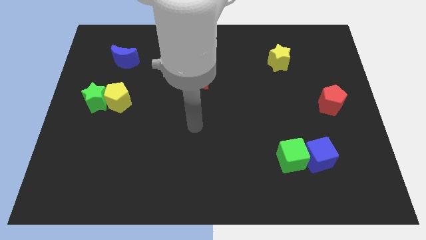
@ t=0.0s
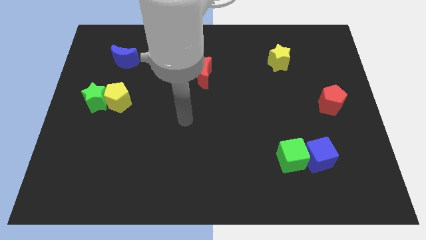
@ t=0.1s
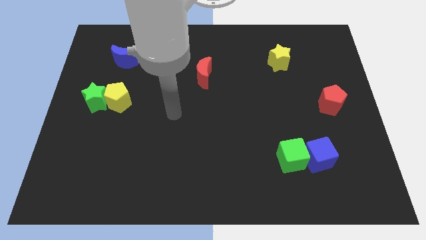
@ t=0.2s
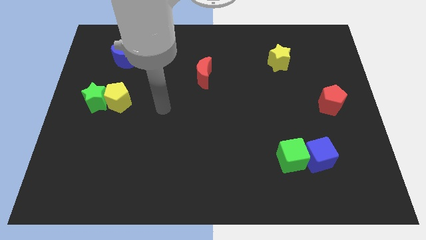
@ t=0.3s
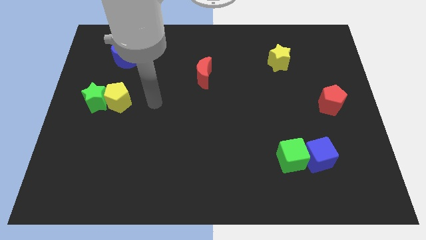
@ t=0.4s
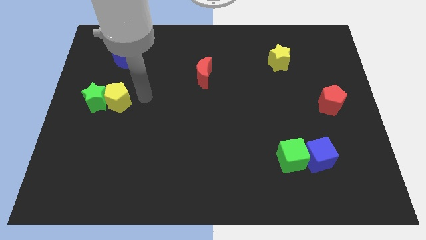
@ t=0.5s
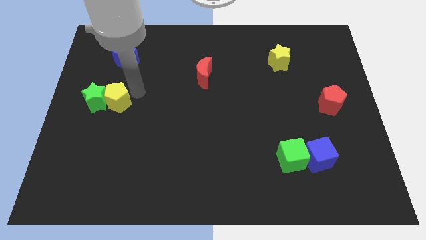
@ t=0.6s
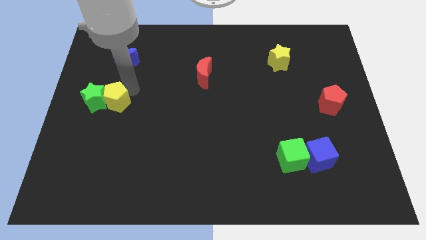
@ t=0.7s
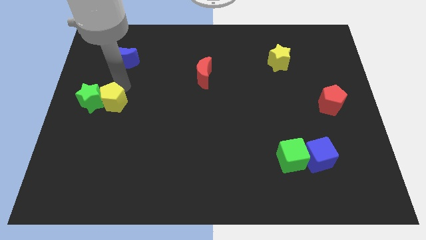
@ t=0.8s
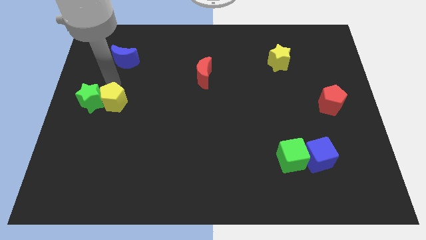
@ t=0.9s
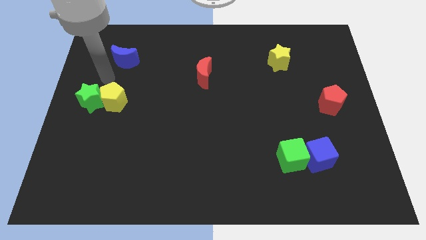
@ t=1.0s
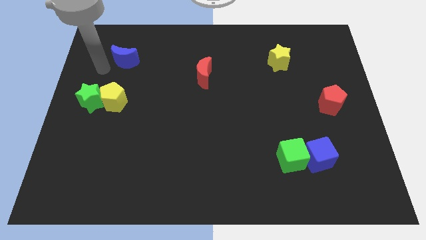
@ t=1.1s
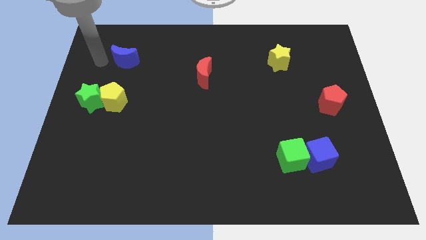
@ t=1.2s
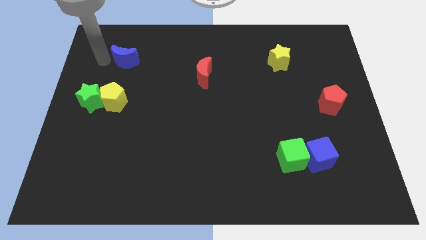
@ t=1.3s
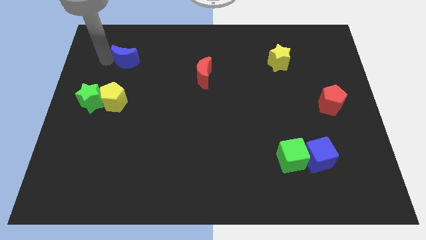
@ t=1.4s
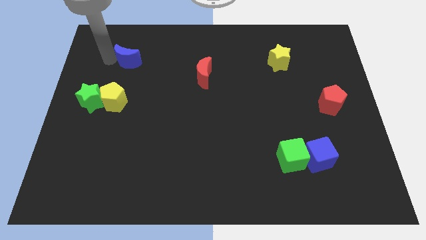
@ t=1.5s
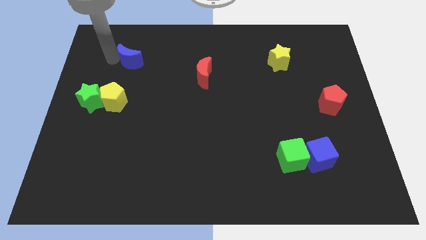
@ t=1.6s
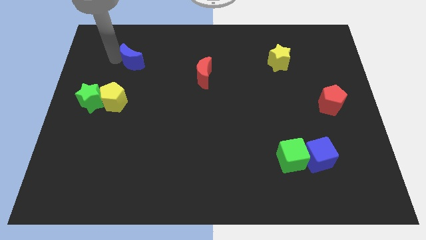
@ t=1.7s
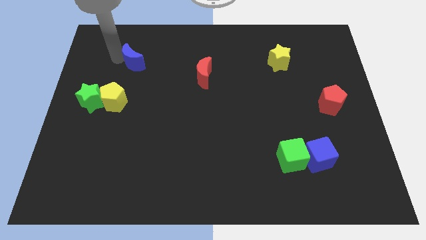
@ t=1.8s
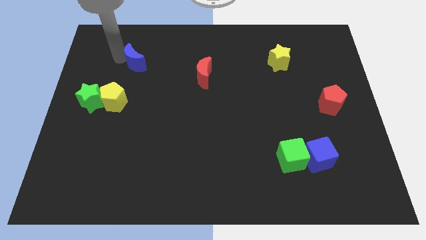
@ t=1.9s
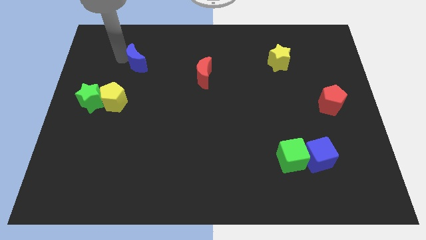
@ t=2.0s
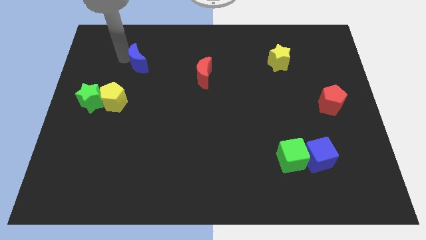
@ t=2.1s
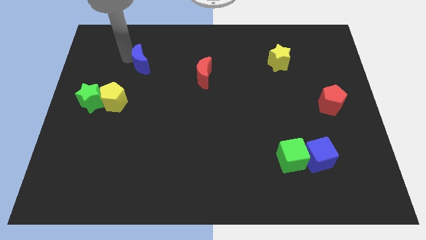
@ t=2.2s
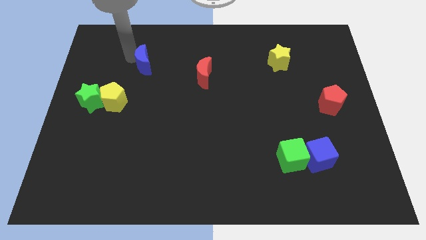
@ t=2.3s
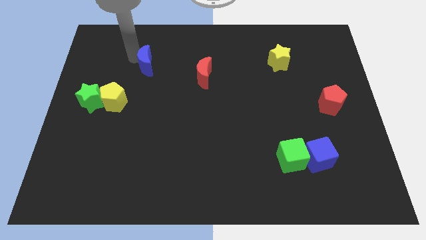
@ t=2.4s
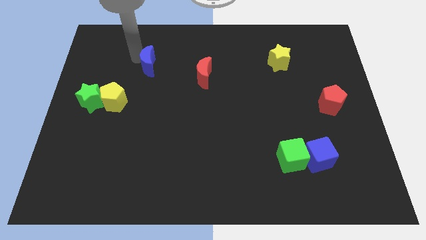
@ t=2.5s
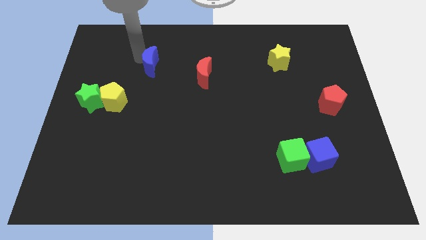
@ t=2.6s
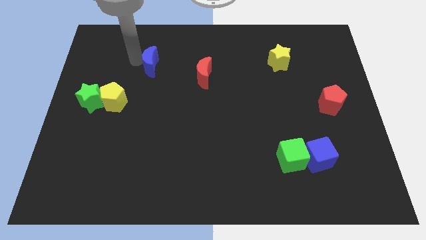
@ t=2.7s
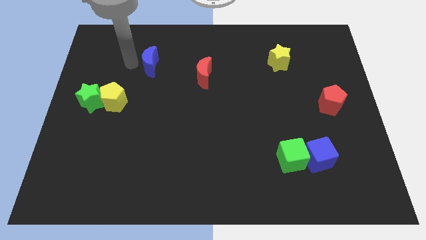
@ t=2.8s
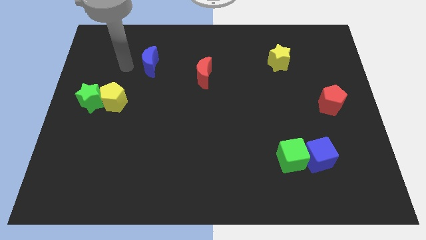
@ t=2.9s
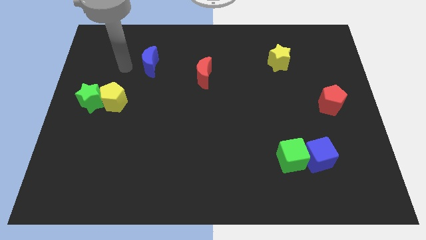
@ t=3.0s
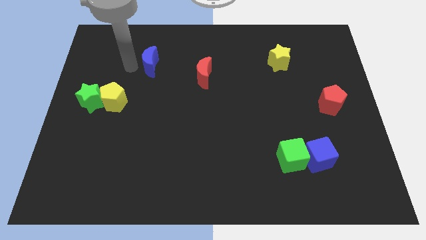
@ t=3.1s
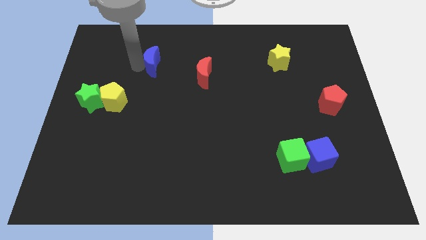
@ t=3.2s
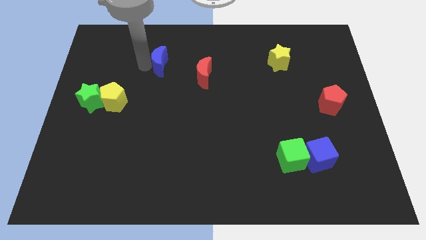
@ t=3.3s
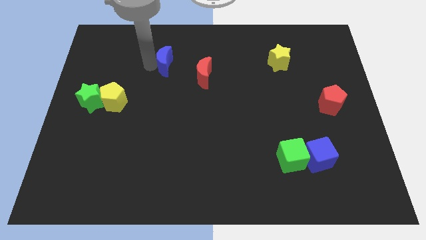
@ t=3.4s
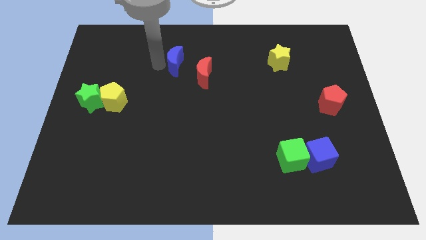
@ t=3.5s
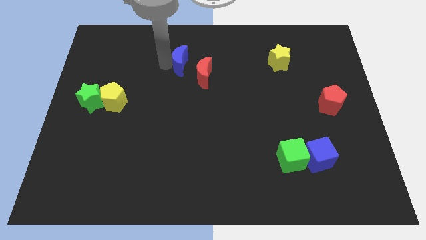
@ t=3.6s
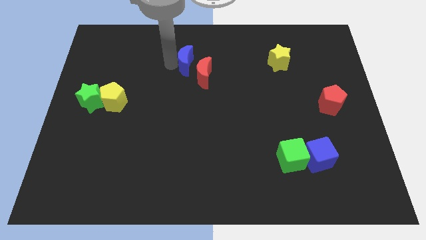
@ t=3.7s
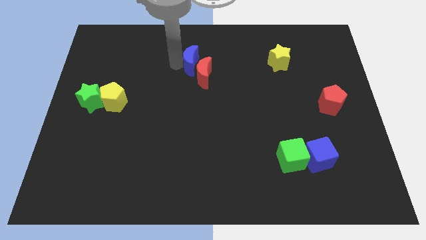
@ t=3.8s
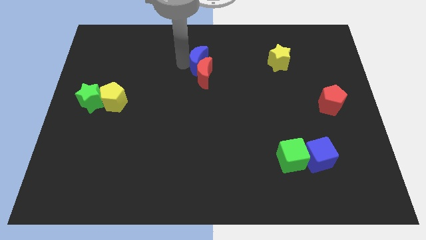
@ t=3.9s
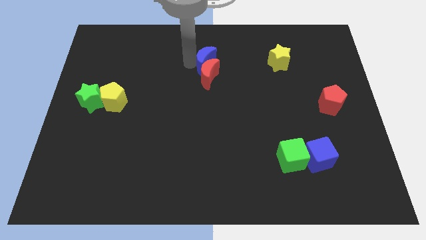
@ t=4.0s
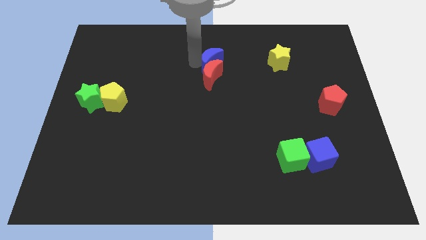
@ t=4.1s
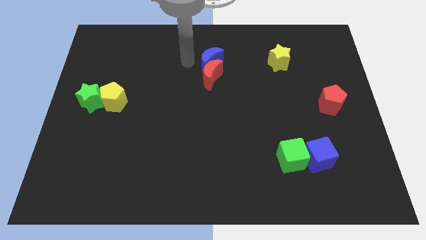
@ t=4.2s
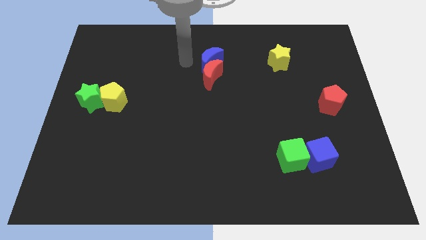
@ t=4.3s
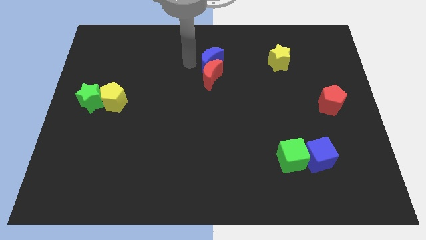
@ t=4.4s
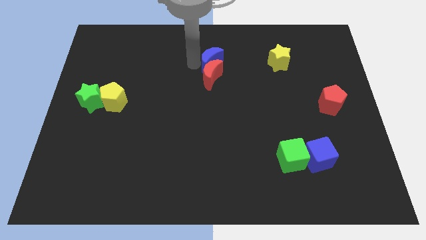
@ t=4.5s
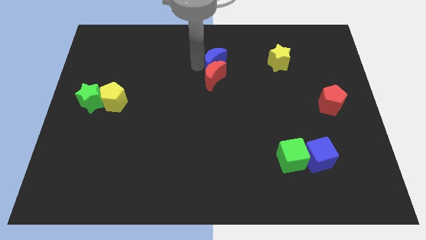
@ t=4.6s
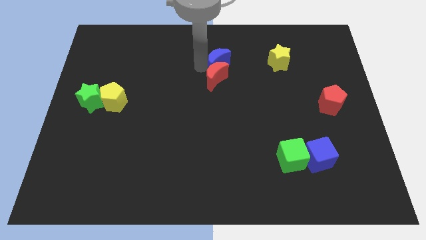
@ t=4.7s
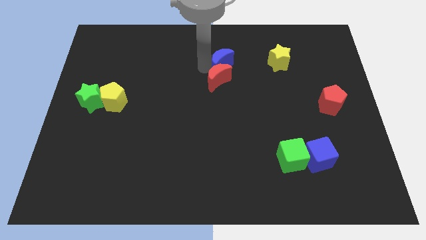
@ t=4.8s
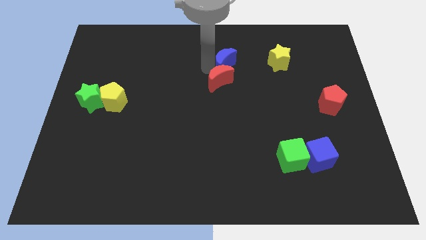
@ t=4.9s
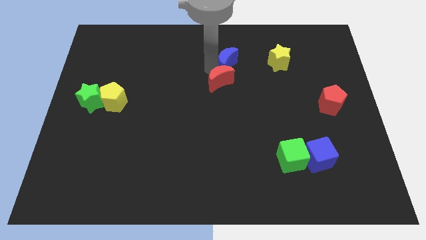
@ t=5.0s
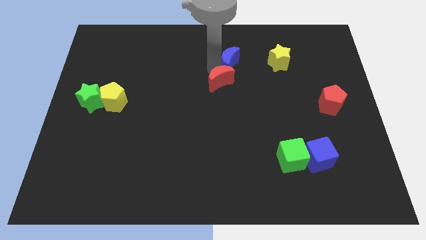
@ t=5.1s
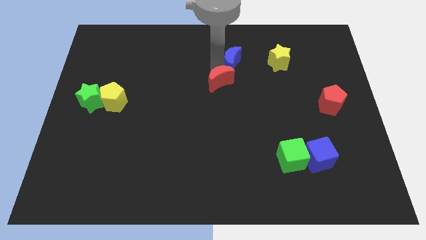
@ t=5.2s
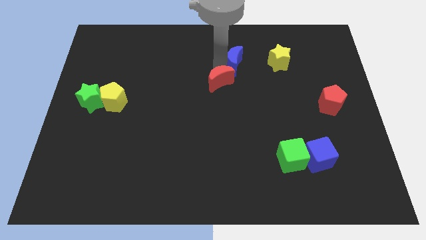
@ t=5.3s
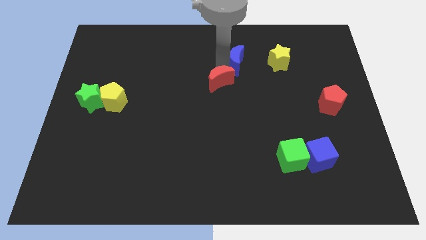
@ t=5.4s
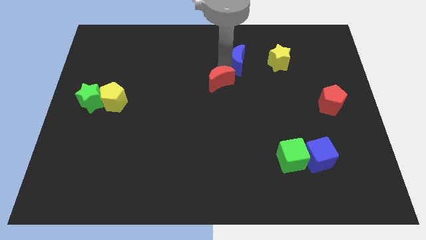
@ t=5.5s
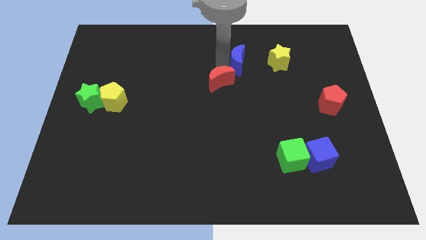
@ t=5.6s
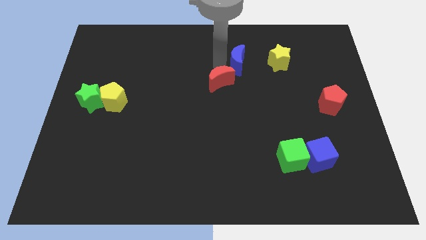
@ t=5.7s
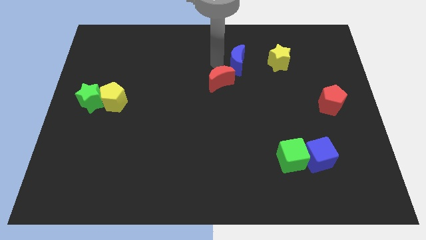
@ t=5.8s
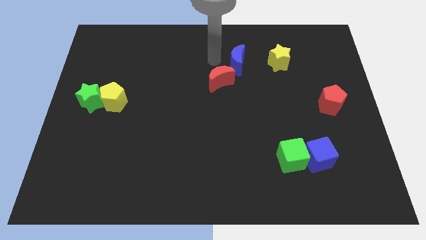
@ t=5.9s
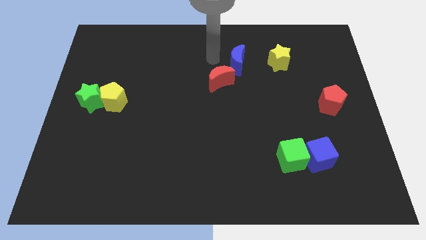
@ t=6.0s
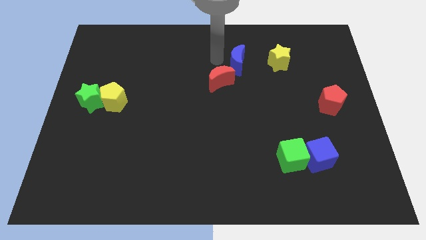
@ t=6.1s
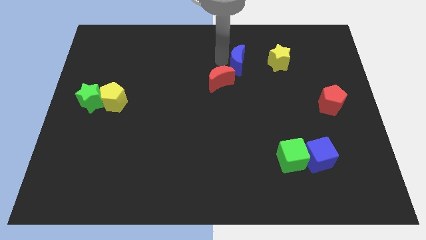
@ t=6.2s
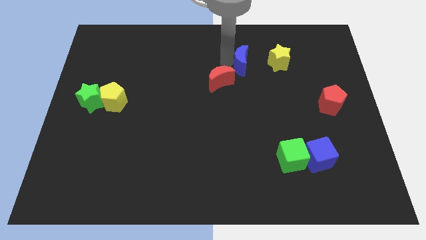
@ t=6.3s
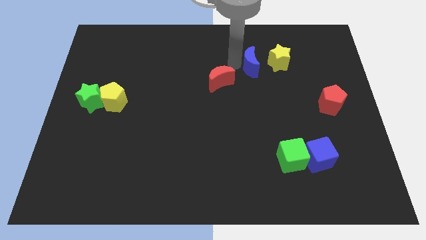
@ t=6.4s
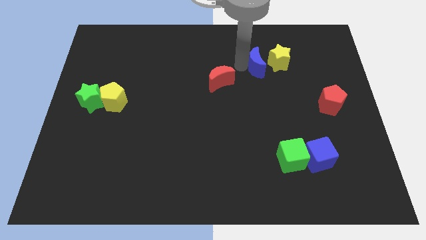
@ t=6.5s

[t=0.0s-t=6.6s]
move the blue moon towards the yellow star
